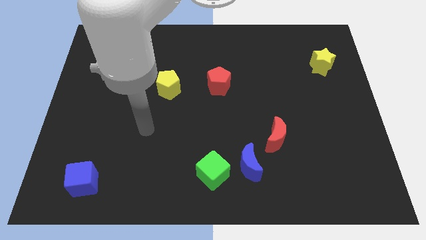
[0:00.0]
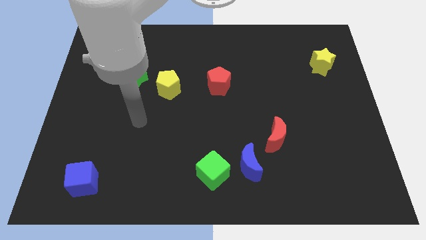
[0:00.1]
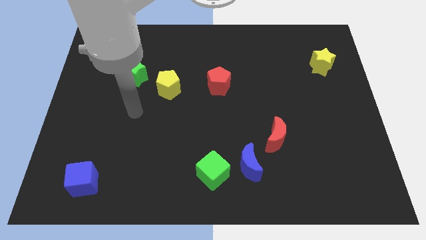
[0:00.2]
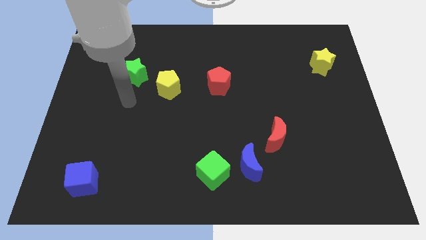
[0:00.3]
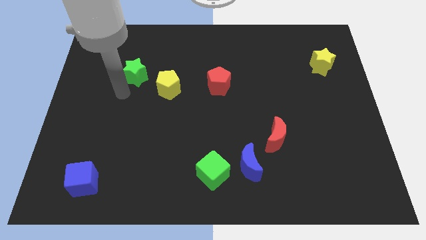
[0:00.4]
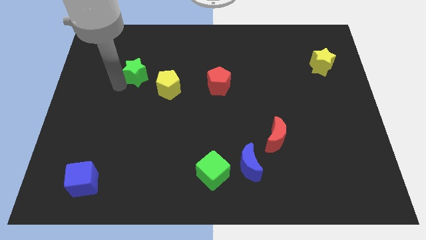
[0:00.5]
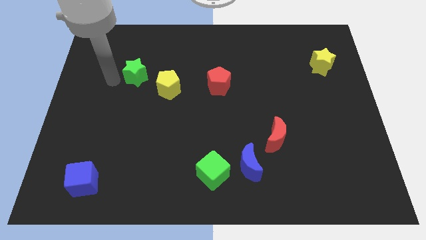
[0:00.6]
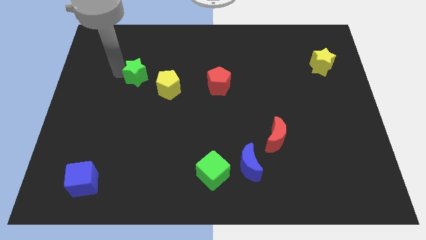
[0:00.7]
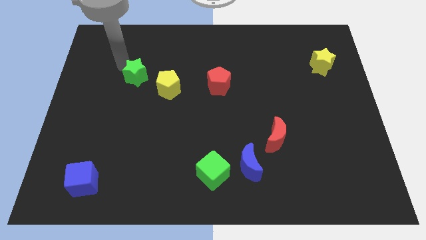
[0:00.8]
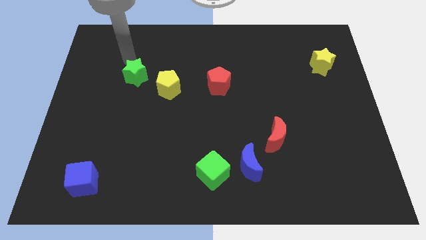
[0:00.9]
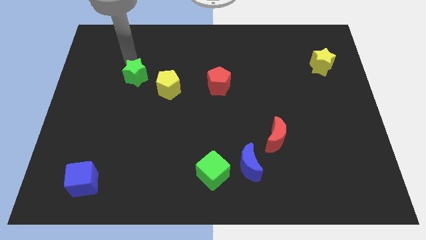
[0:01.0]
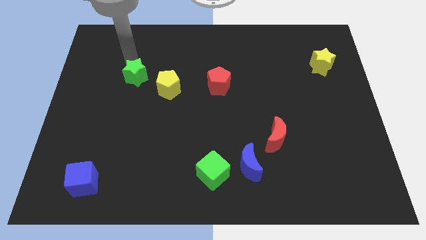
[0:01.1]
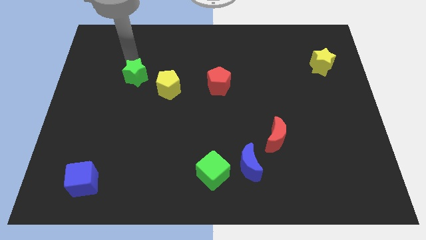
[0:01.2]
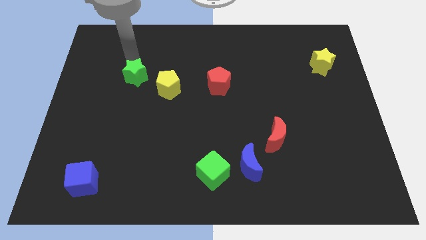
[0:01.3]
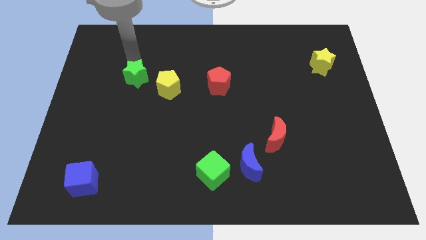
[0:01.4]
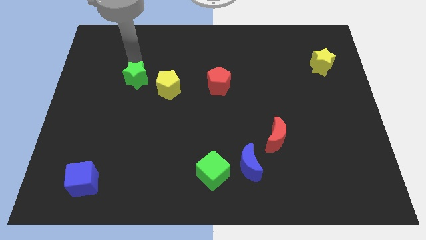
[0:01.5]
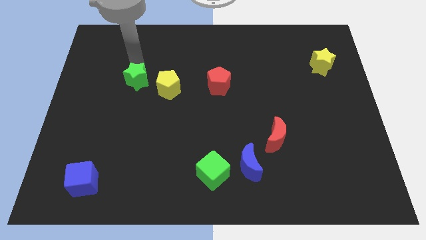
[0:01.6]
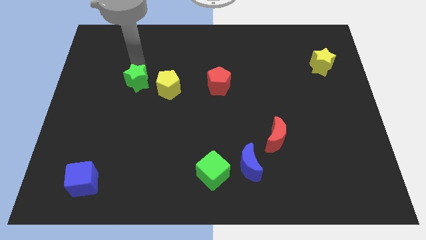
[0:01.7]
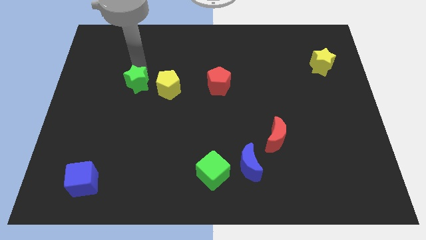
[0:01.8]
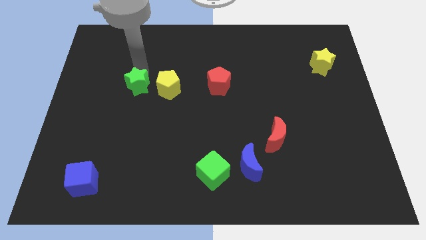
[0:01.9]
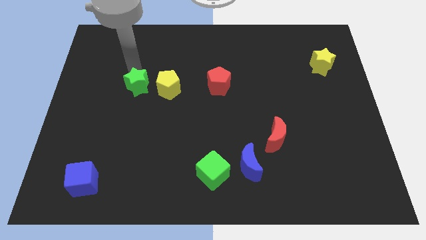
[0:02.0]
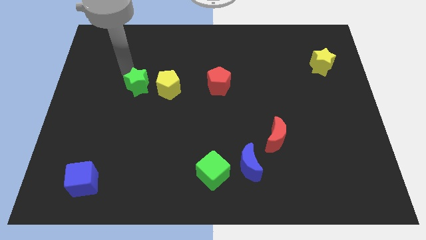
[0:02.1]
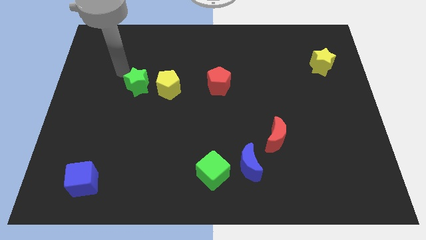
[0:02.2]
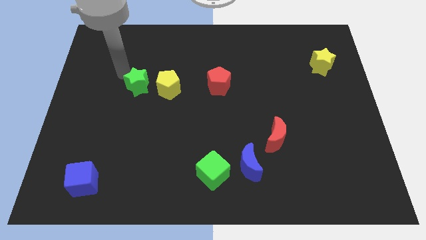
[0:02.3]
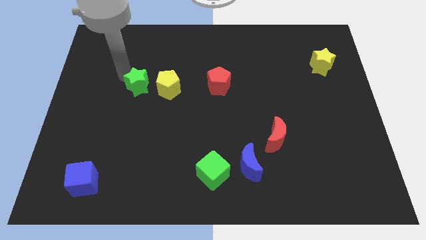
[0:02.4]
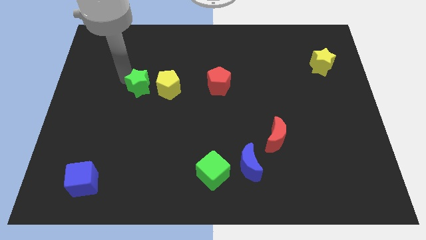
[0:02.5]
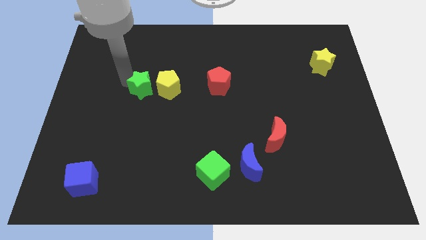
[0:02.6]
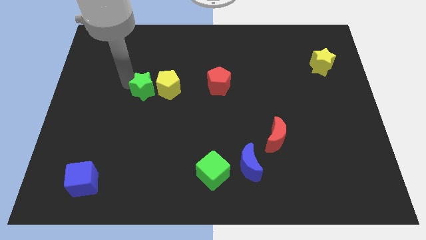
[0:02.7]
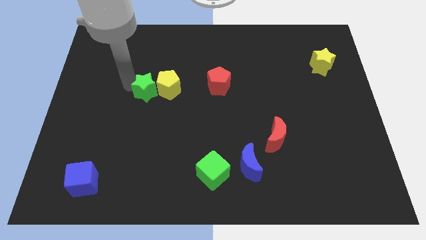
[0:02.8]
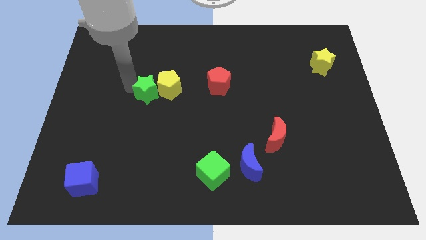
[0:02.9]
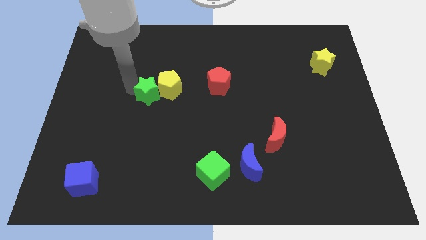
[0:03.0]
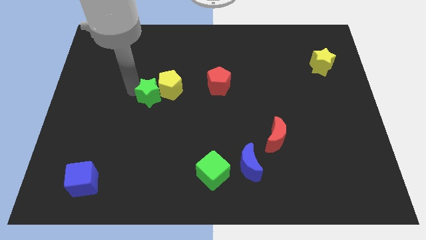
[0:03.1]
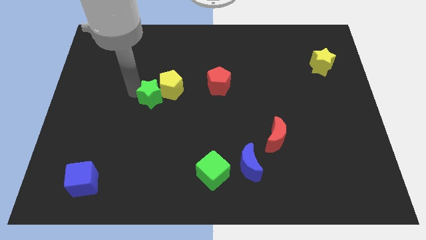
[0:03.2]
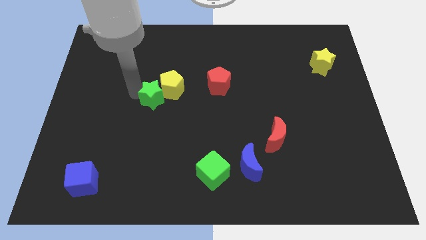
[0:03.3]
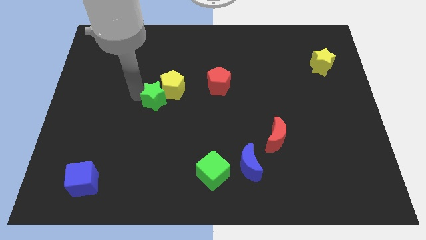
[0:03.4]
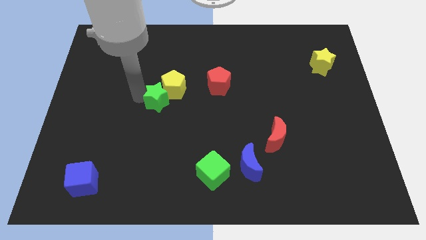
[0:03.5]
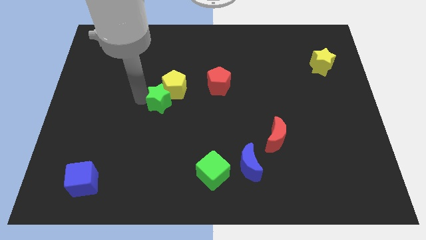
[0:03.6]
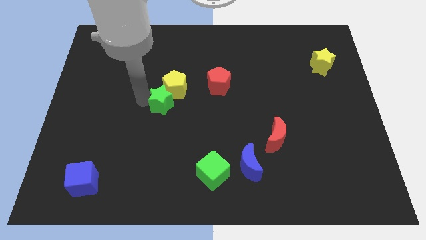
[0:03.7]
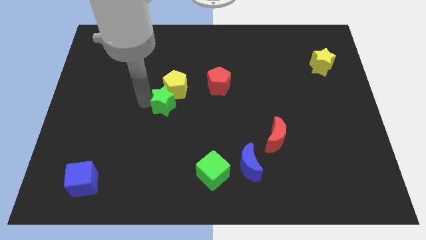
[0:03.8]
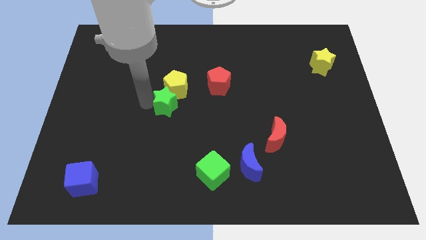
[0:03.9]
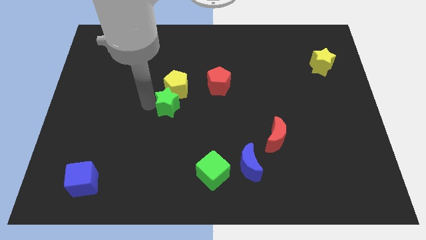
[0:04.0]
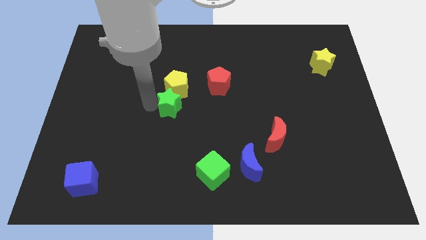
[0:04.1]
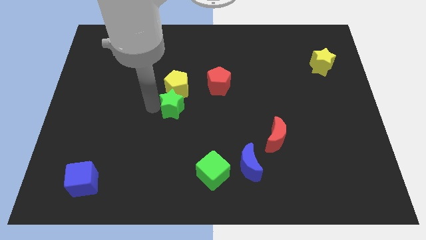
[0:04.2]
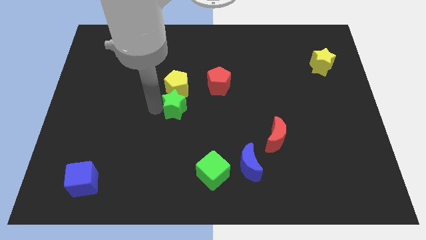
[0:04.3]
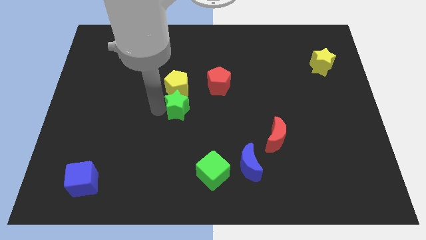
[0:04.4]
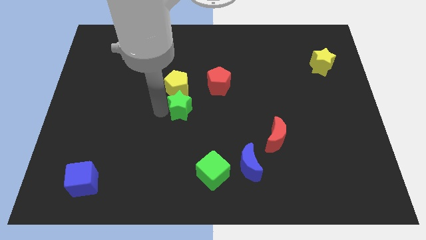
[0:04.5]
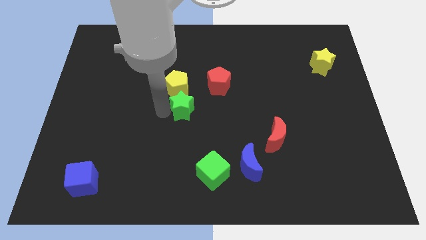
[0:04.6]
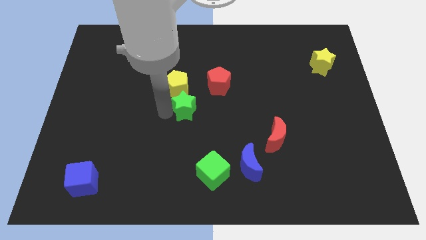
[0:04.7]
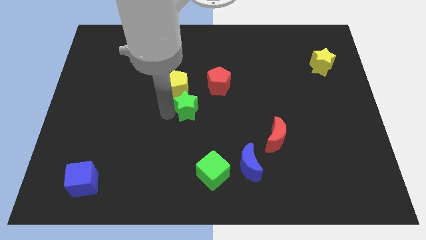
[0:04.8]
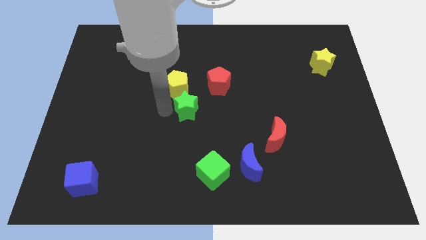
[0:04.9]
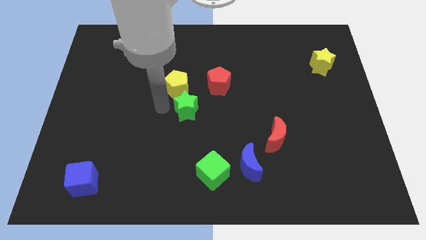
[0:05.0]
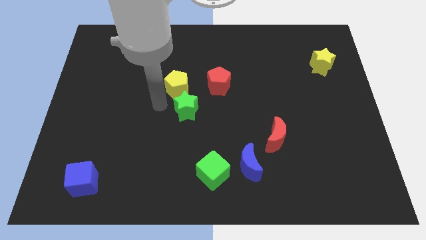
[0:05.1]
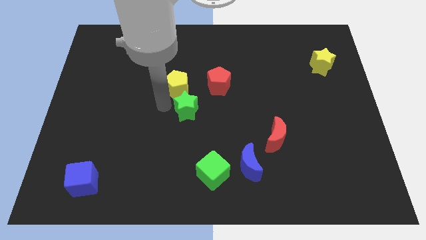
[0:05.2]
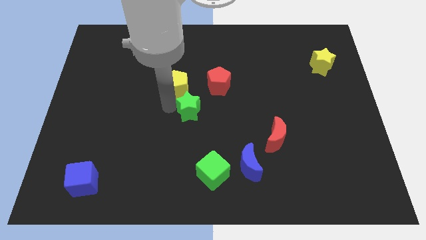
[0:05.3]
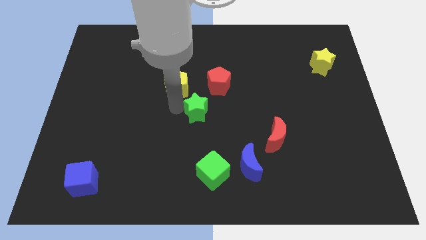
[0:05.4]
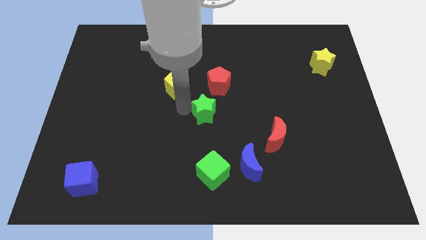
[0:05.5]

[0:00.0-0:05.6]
put the green star to the bottom side of the red pentagon

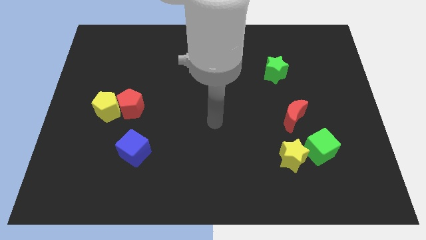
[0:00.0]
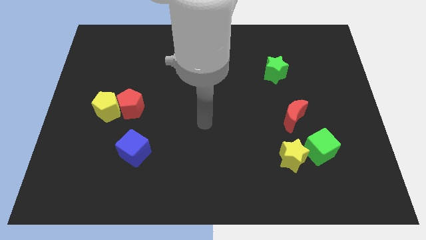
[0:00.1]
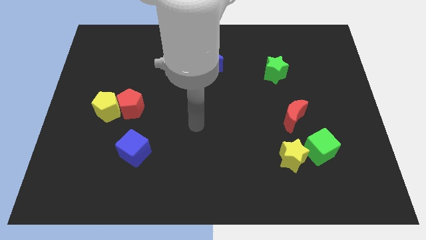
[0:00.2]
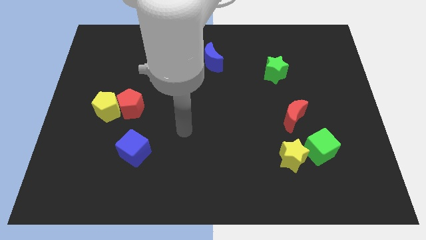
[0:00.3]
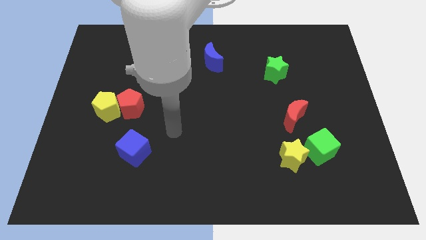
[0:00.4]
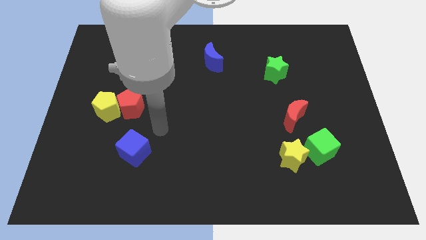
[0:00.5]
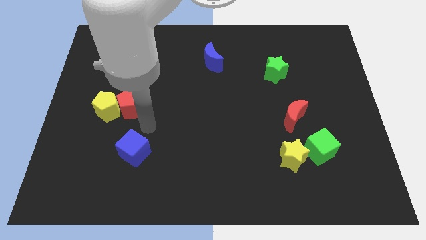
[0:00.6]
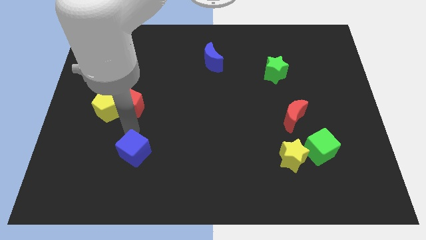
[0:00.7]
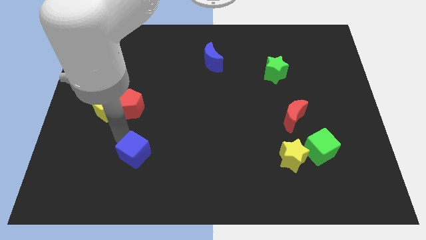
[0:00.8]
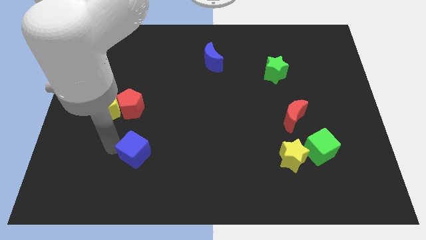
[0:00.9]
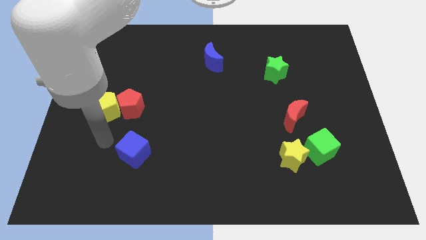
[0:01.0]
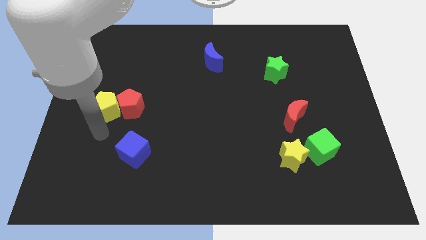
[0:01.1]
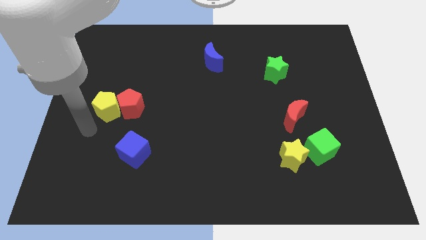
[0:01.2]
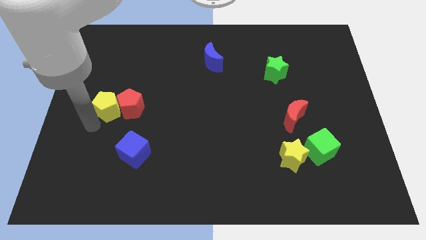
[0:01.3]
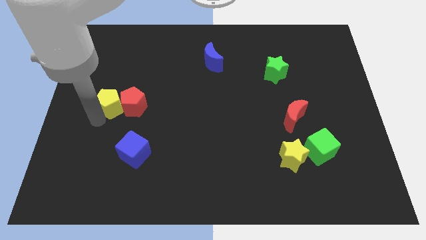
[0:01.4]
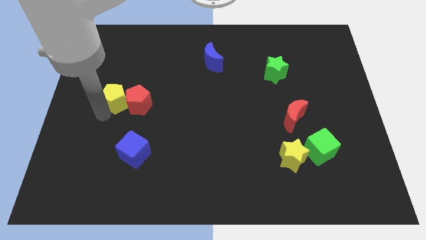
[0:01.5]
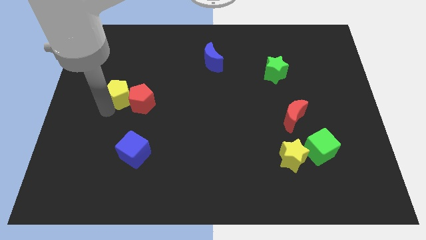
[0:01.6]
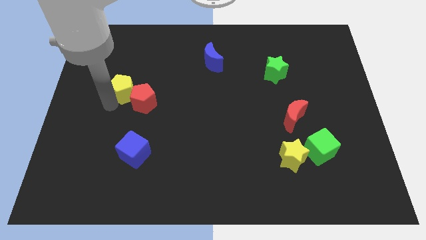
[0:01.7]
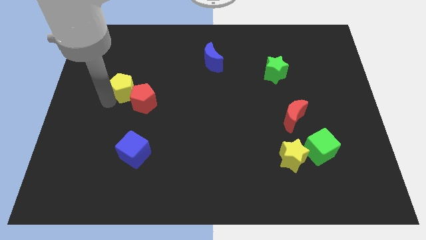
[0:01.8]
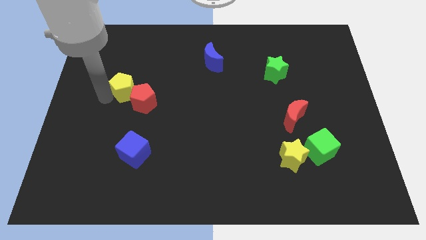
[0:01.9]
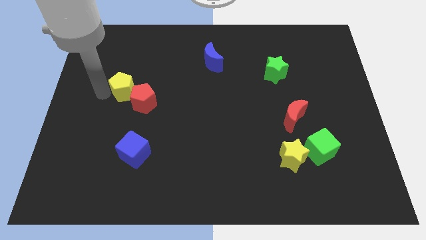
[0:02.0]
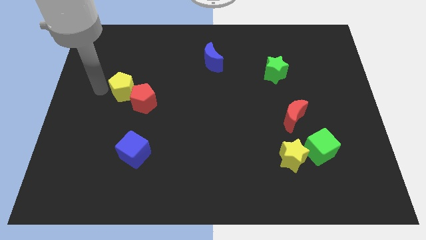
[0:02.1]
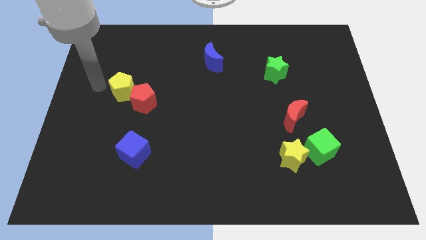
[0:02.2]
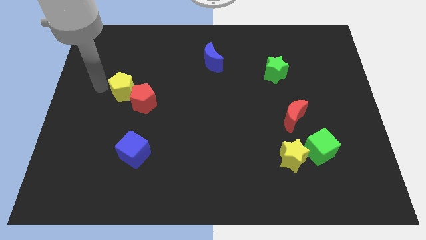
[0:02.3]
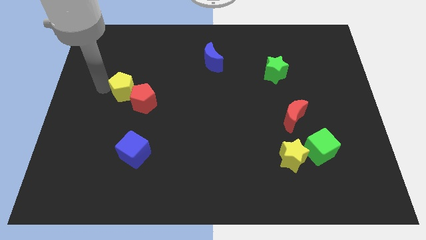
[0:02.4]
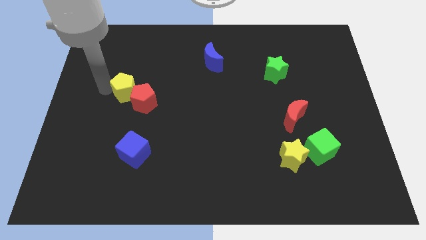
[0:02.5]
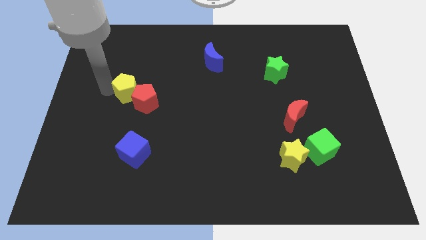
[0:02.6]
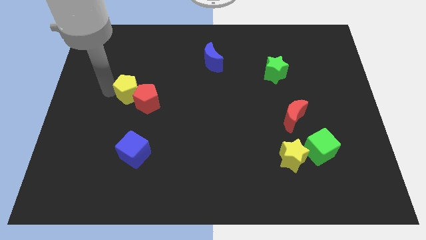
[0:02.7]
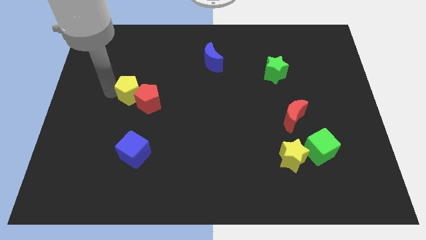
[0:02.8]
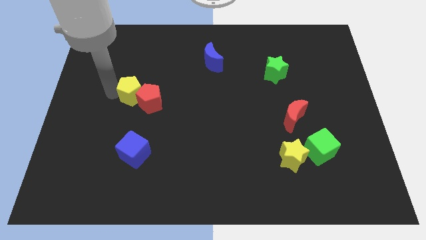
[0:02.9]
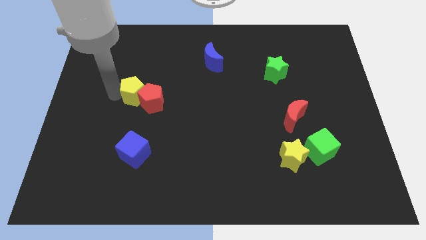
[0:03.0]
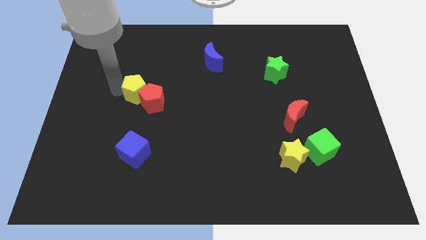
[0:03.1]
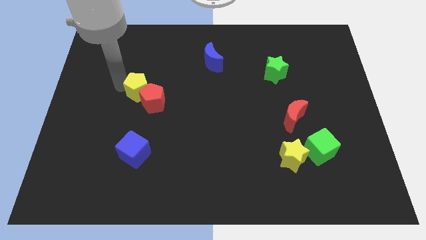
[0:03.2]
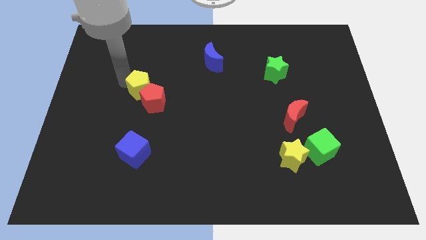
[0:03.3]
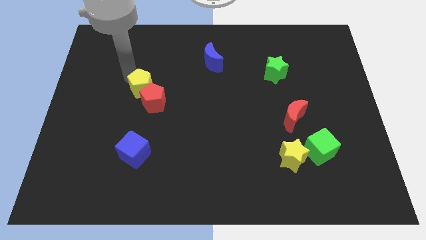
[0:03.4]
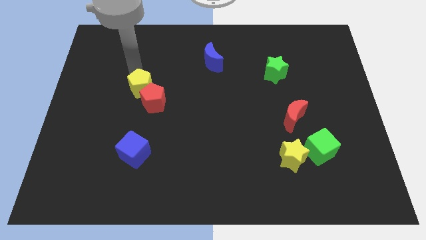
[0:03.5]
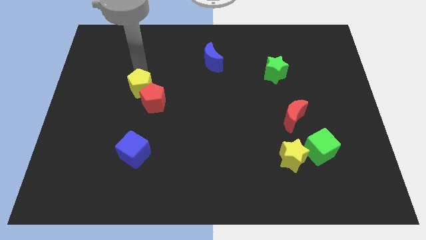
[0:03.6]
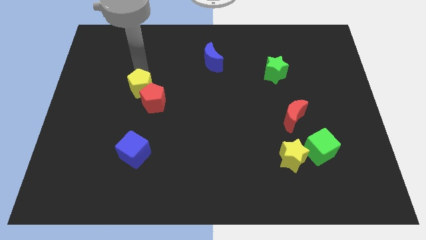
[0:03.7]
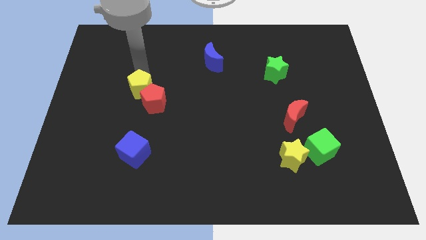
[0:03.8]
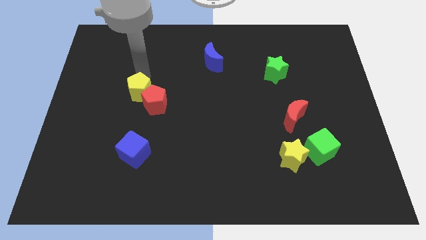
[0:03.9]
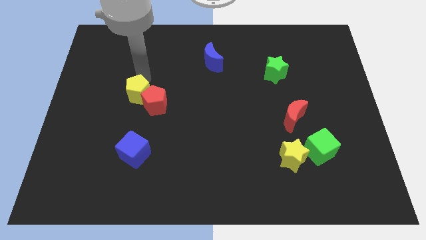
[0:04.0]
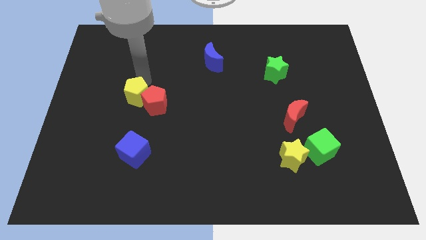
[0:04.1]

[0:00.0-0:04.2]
put the yellow pentagon to the top side of the blue cube
